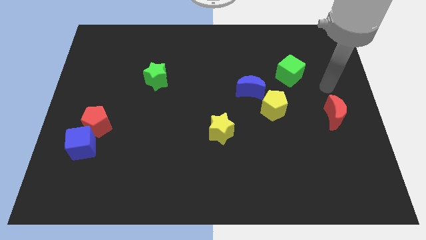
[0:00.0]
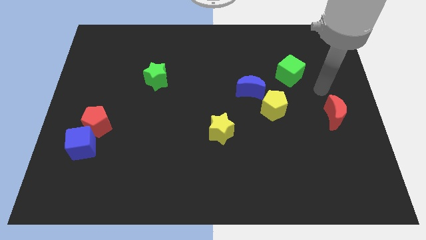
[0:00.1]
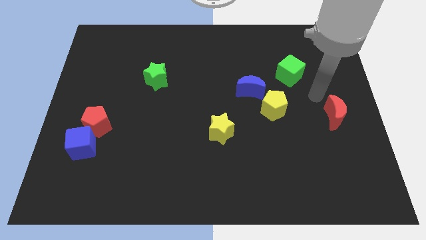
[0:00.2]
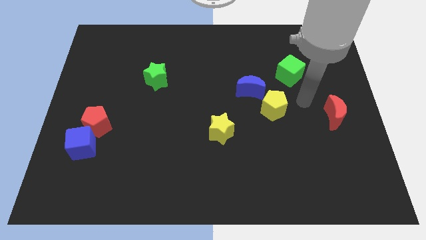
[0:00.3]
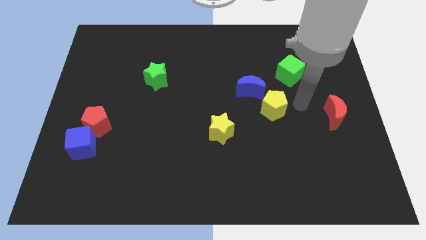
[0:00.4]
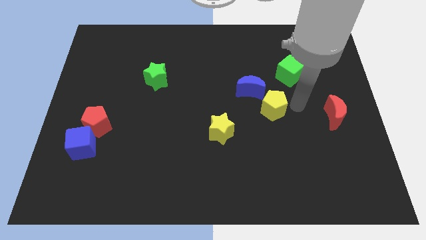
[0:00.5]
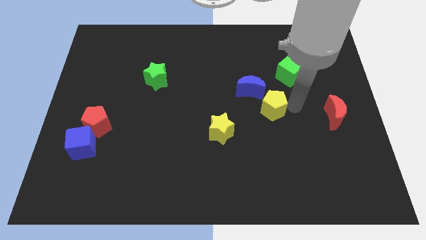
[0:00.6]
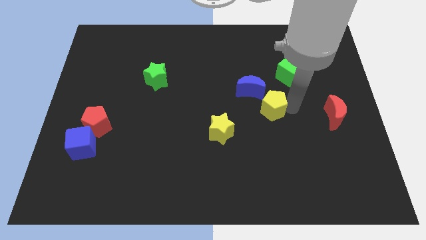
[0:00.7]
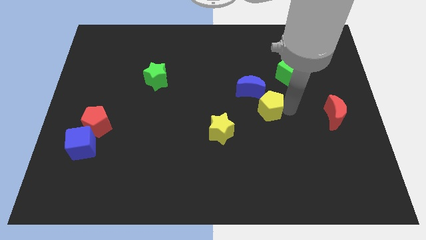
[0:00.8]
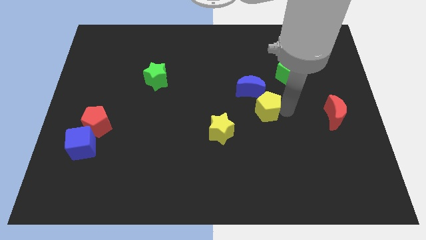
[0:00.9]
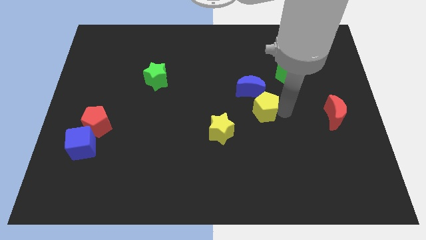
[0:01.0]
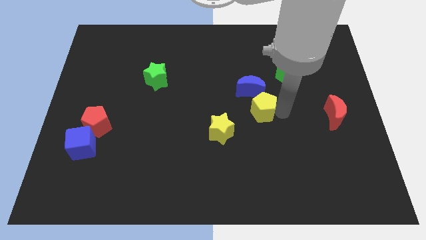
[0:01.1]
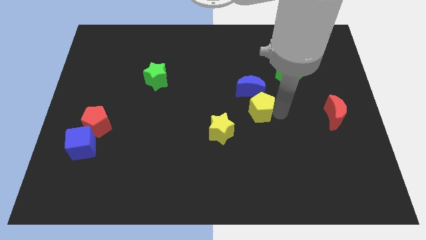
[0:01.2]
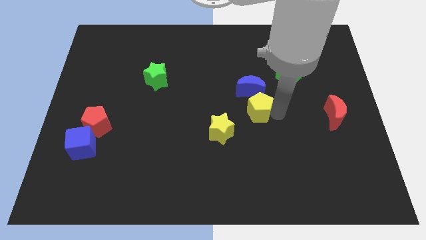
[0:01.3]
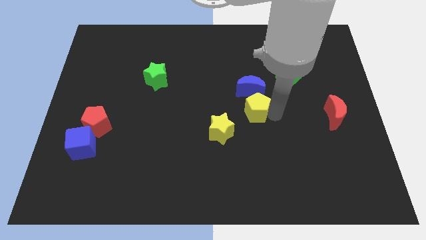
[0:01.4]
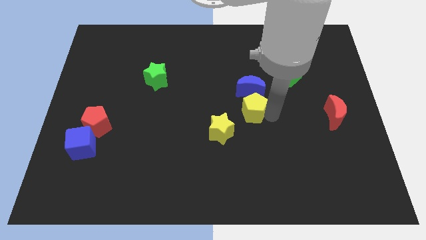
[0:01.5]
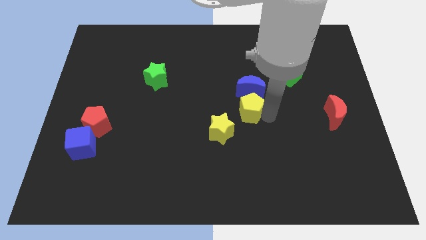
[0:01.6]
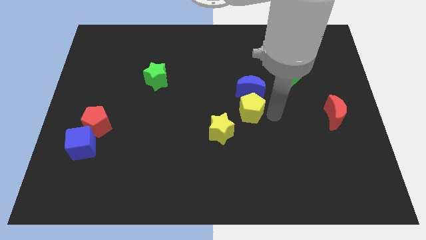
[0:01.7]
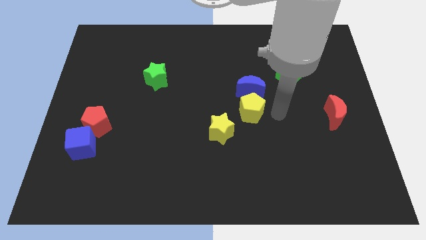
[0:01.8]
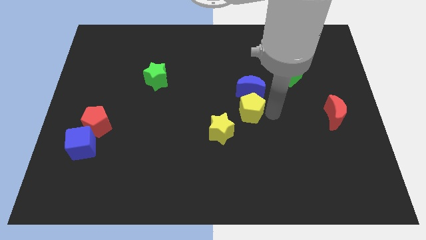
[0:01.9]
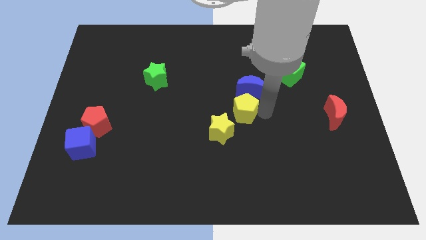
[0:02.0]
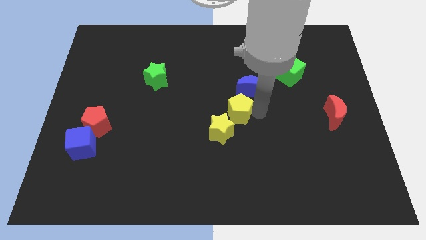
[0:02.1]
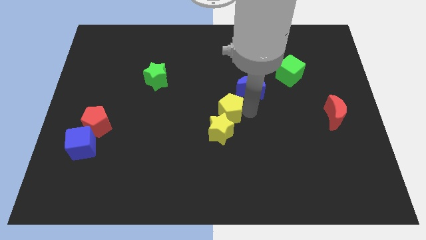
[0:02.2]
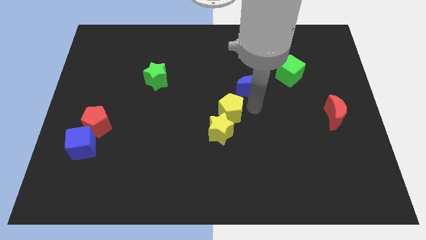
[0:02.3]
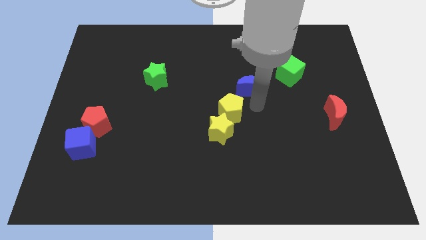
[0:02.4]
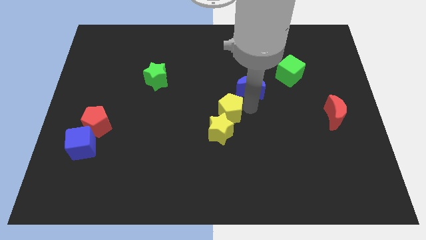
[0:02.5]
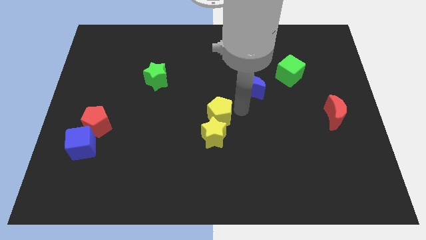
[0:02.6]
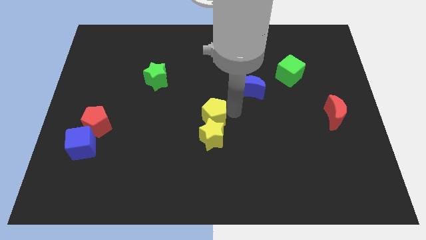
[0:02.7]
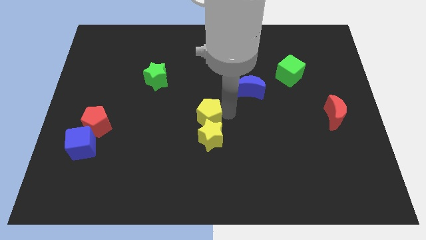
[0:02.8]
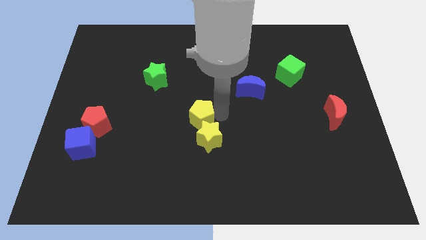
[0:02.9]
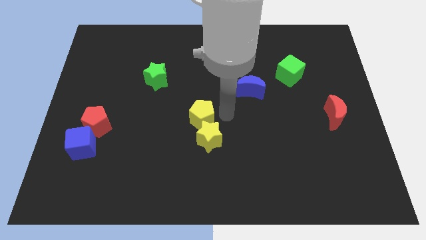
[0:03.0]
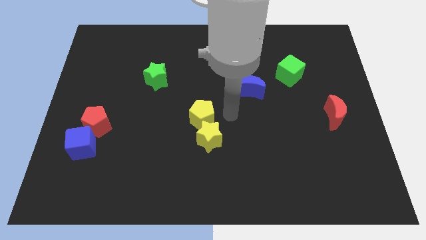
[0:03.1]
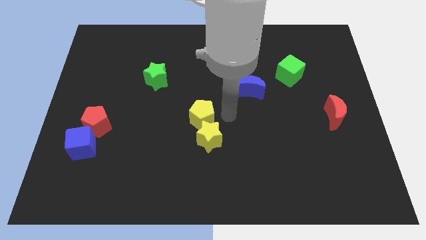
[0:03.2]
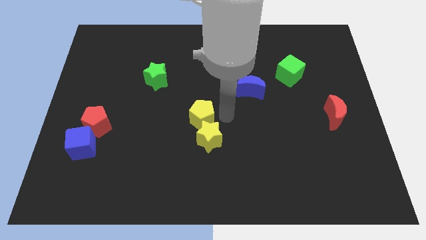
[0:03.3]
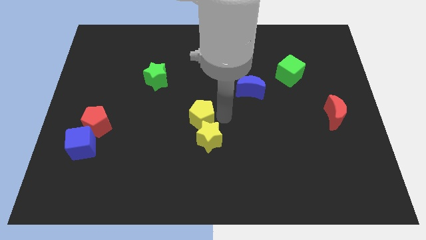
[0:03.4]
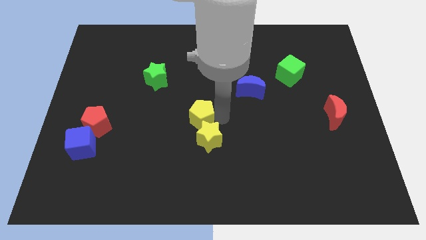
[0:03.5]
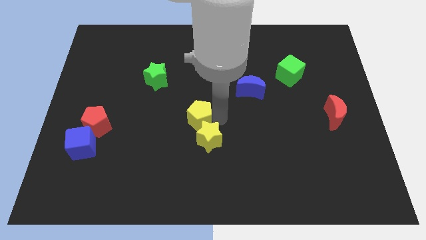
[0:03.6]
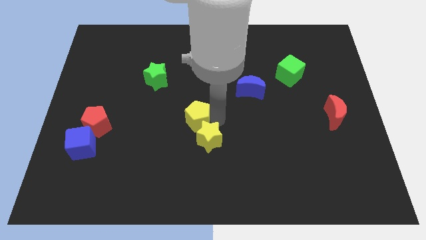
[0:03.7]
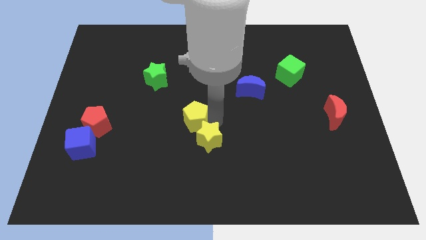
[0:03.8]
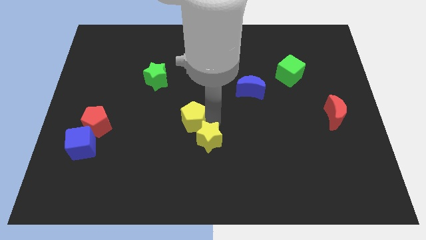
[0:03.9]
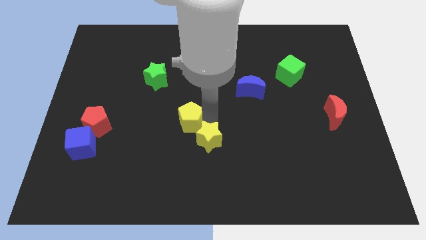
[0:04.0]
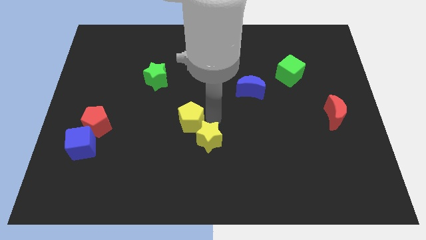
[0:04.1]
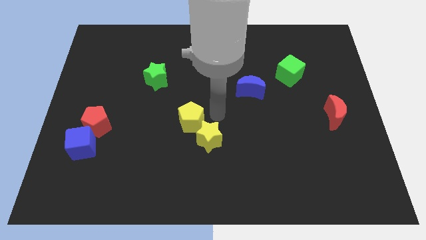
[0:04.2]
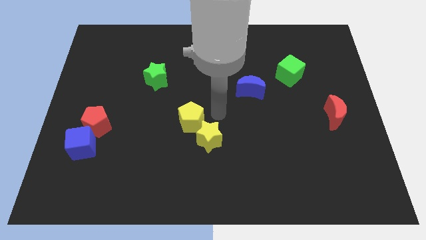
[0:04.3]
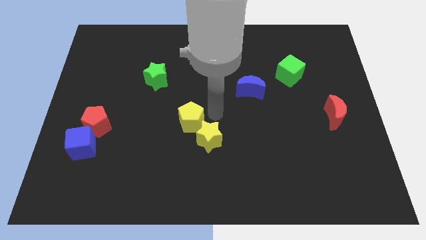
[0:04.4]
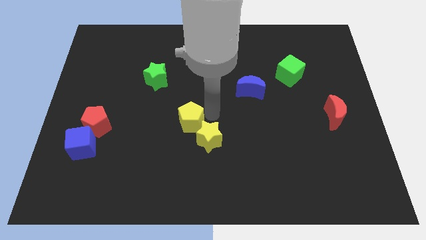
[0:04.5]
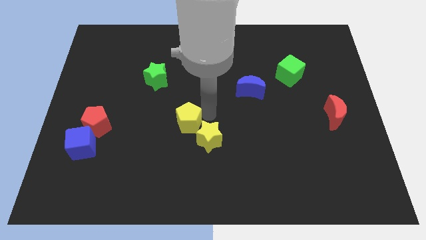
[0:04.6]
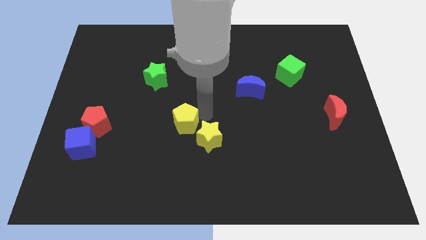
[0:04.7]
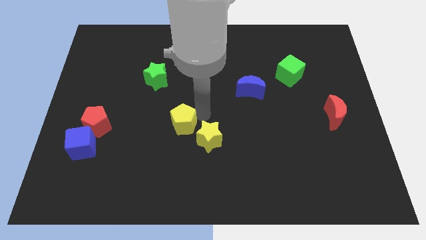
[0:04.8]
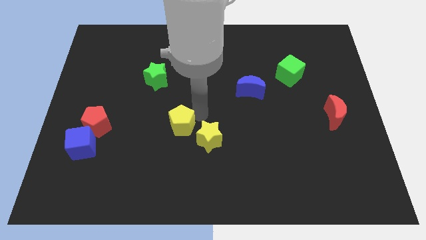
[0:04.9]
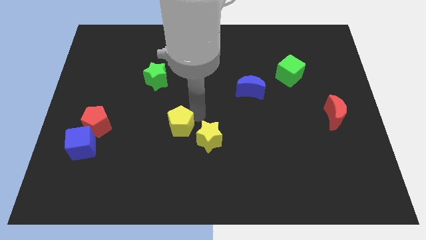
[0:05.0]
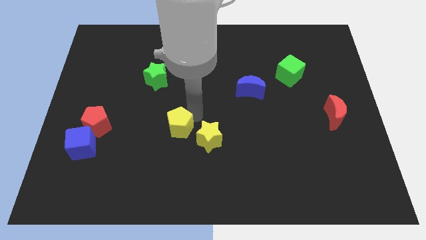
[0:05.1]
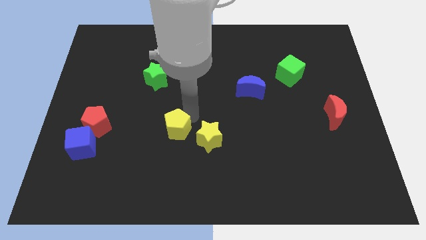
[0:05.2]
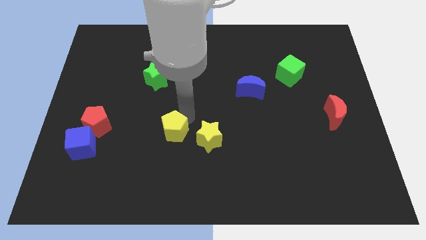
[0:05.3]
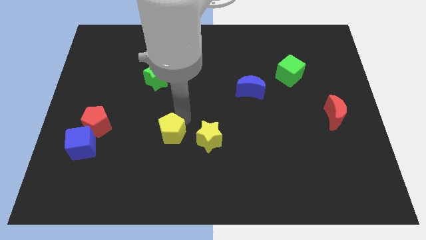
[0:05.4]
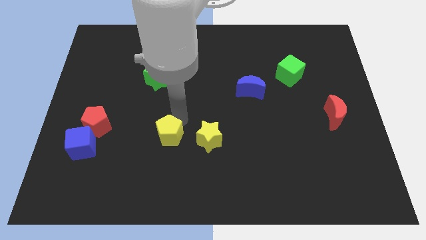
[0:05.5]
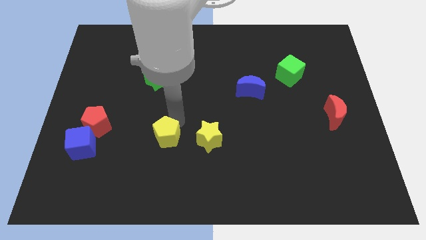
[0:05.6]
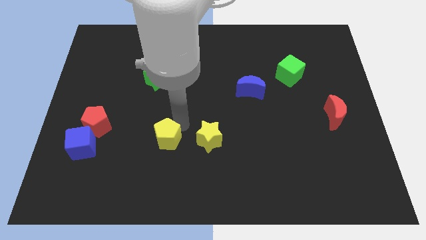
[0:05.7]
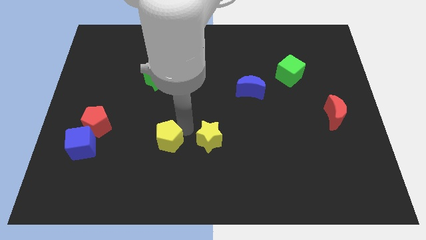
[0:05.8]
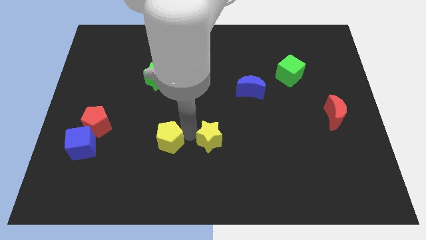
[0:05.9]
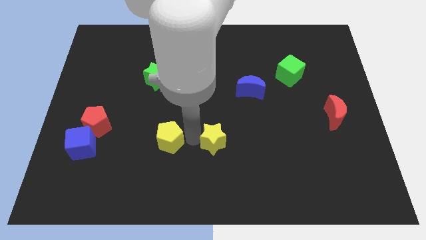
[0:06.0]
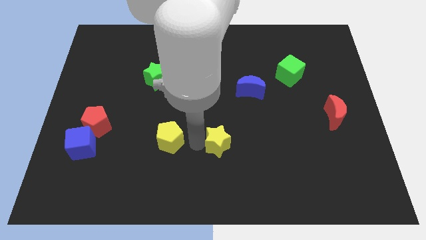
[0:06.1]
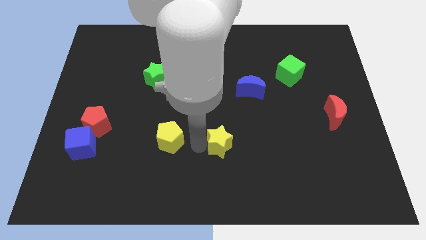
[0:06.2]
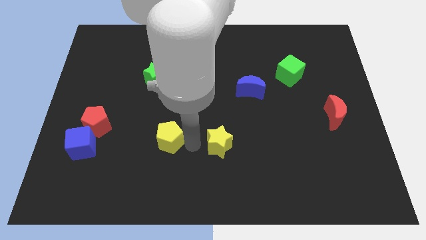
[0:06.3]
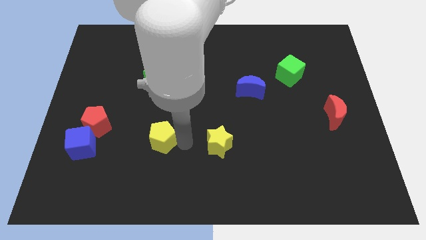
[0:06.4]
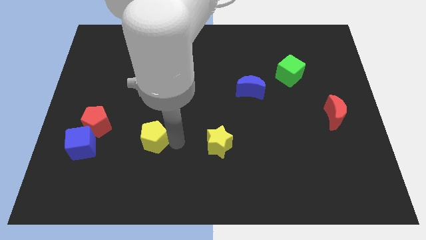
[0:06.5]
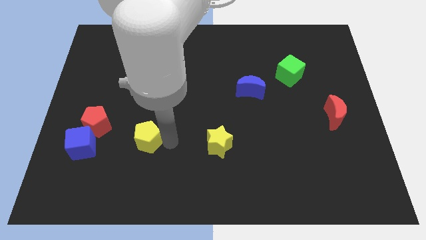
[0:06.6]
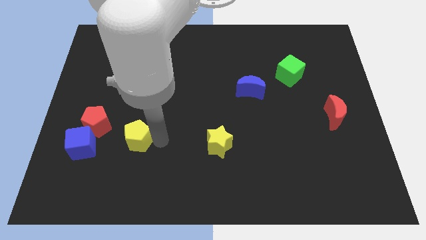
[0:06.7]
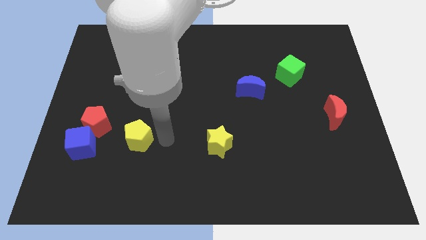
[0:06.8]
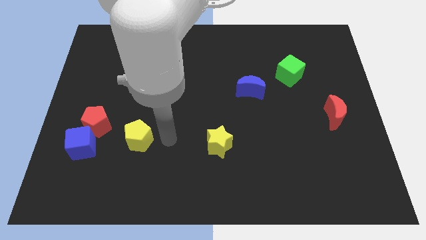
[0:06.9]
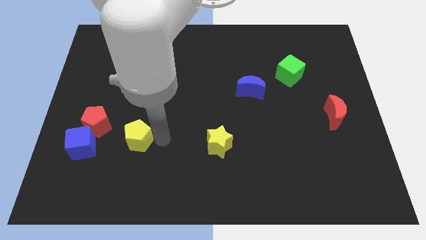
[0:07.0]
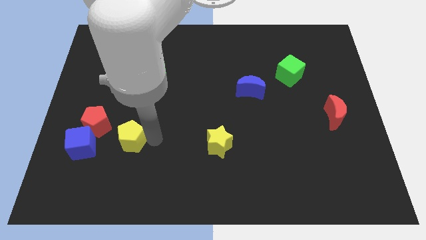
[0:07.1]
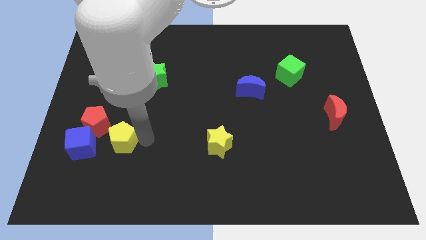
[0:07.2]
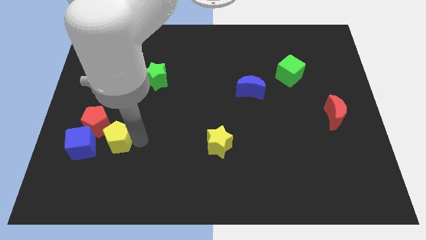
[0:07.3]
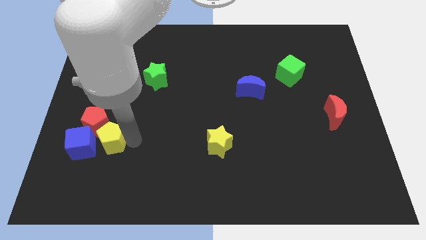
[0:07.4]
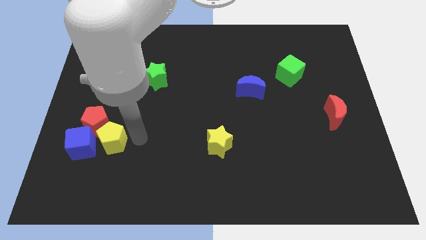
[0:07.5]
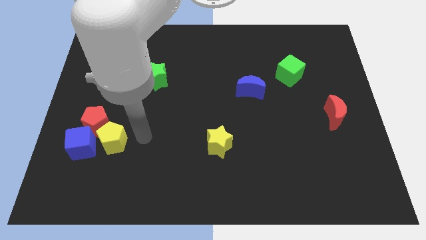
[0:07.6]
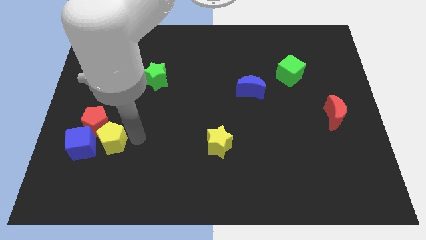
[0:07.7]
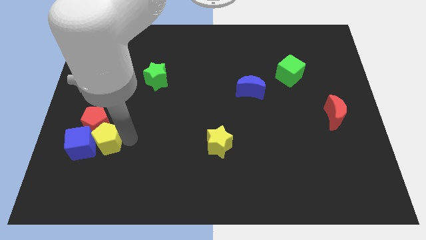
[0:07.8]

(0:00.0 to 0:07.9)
put the yellow pentagon close to the blue cube
